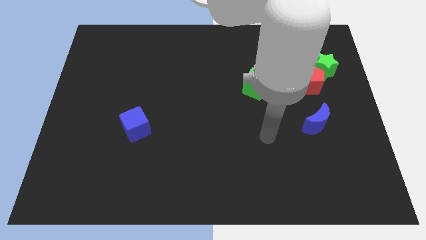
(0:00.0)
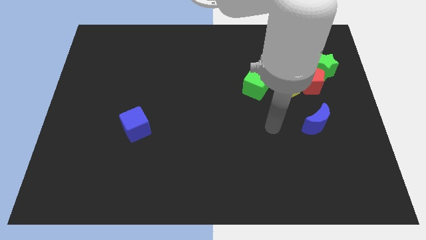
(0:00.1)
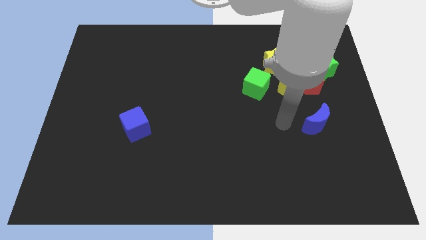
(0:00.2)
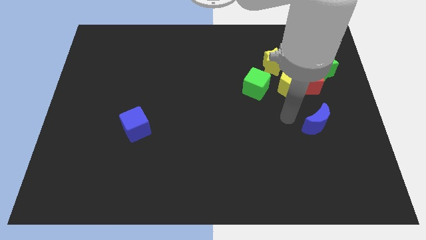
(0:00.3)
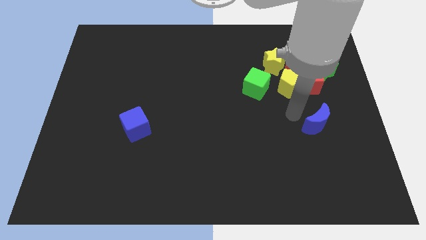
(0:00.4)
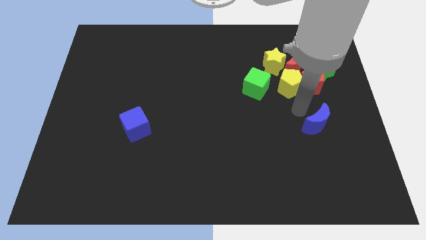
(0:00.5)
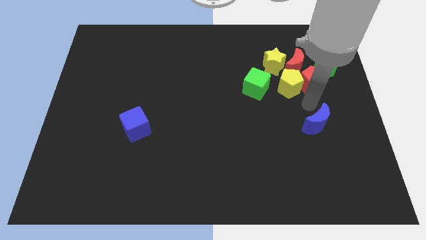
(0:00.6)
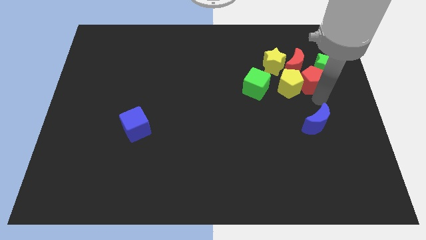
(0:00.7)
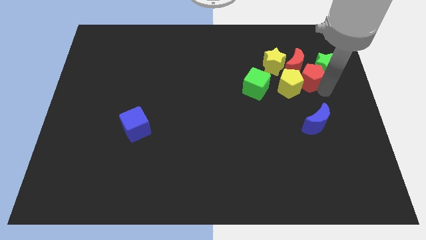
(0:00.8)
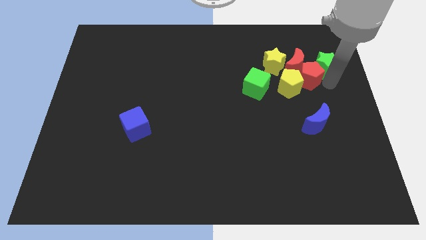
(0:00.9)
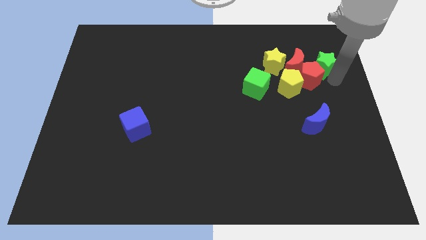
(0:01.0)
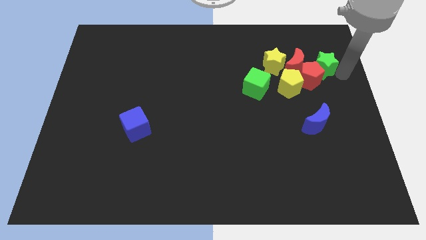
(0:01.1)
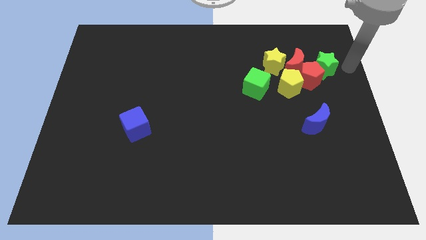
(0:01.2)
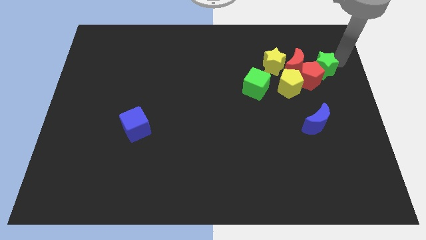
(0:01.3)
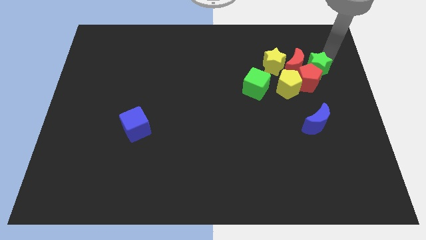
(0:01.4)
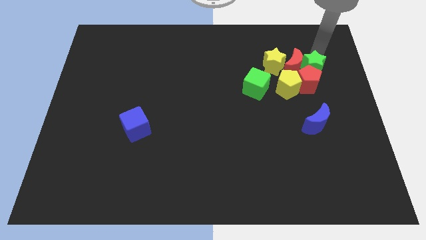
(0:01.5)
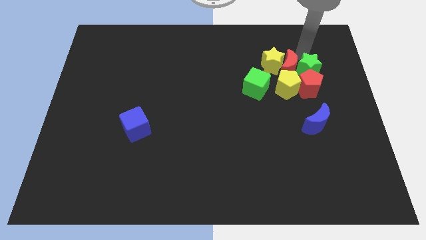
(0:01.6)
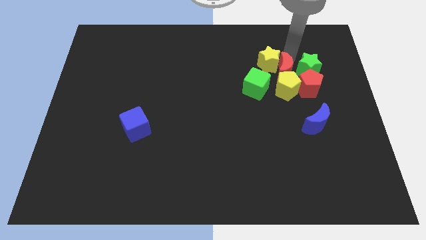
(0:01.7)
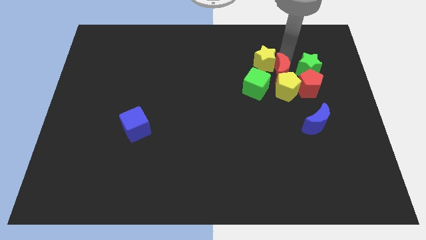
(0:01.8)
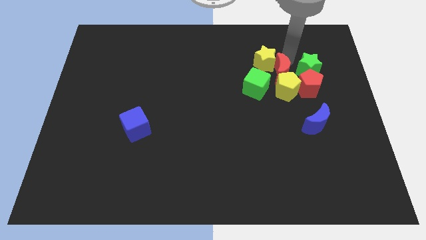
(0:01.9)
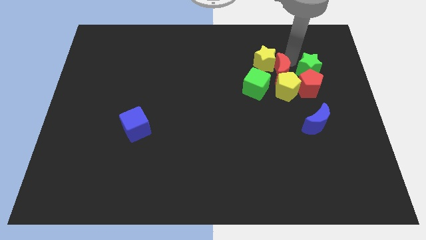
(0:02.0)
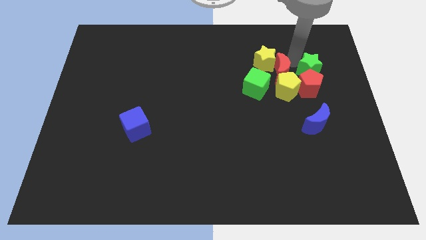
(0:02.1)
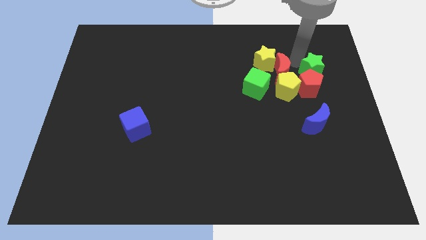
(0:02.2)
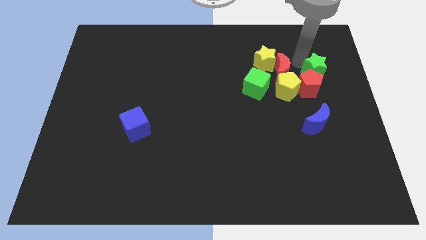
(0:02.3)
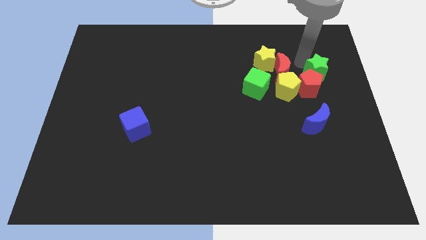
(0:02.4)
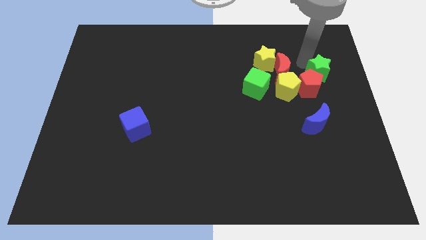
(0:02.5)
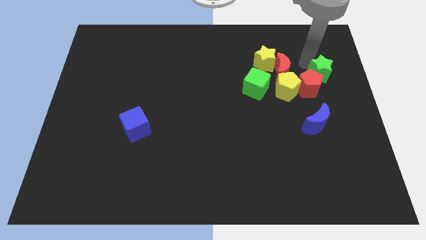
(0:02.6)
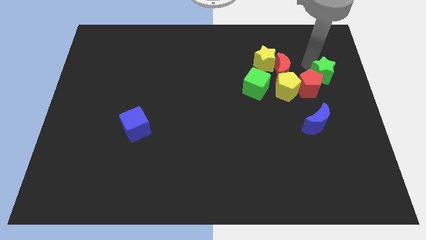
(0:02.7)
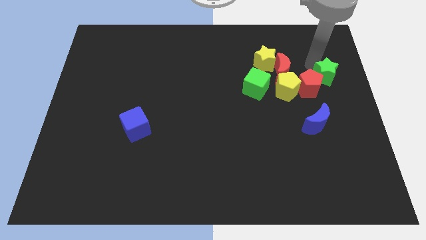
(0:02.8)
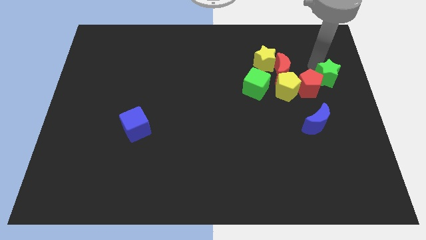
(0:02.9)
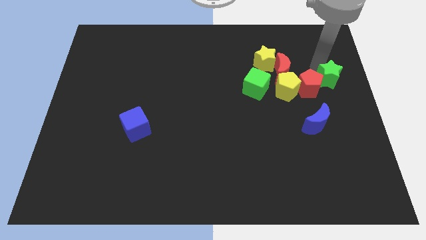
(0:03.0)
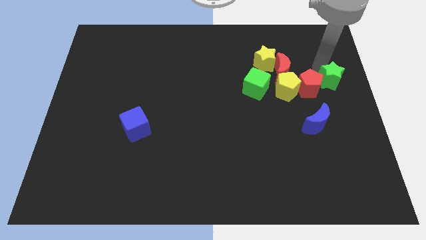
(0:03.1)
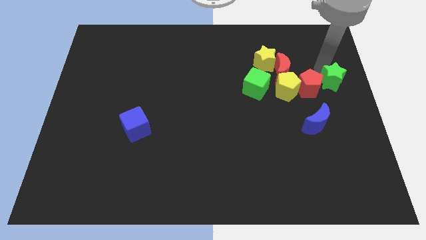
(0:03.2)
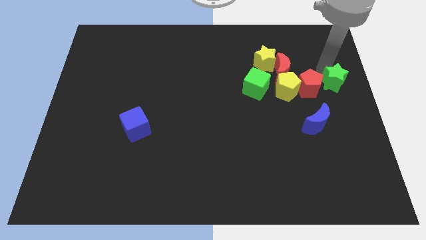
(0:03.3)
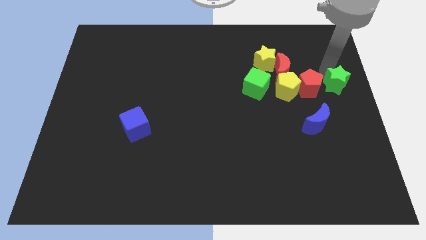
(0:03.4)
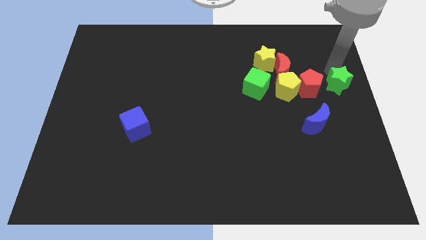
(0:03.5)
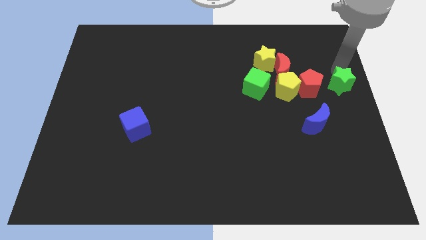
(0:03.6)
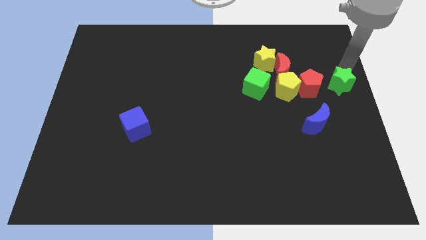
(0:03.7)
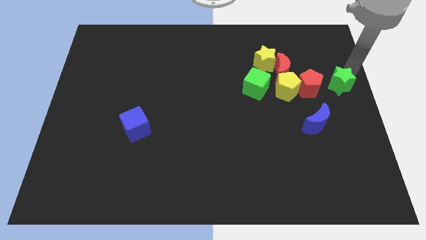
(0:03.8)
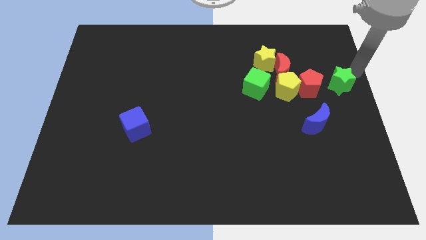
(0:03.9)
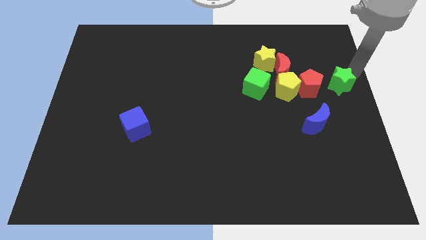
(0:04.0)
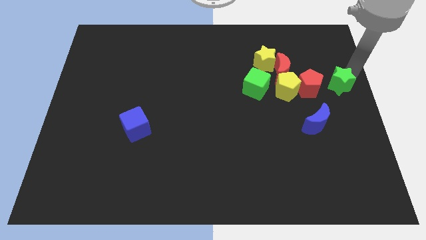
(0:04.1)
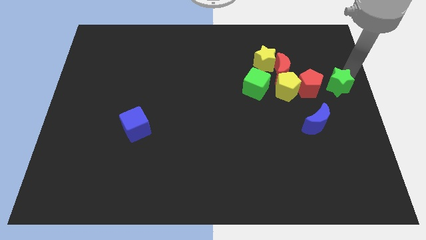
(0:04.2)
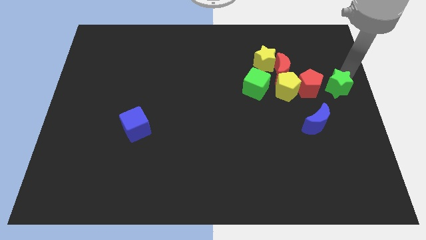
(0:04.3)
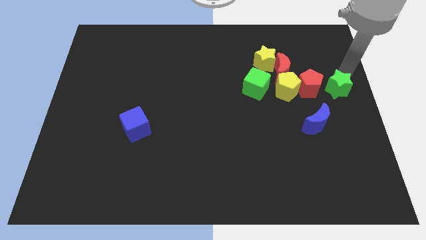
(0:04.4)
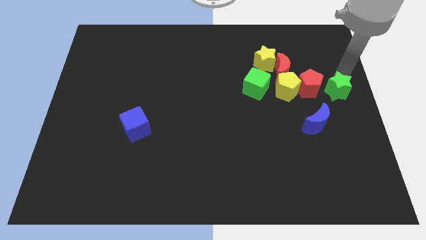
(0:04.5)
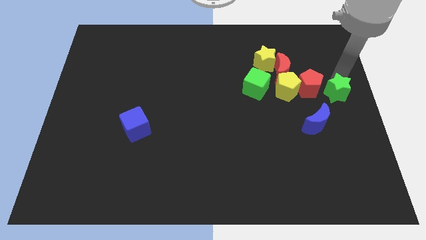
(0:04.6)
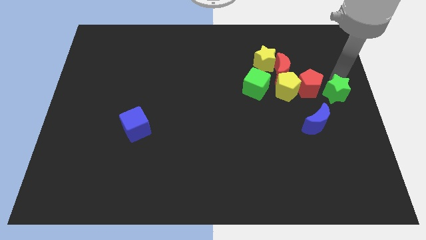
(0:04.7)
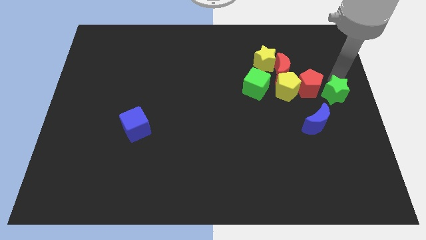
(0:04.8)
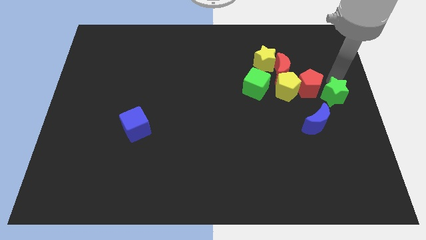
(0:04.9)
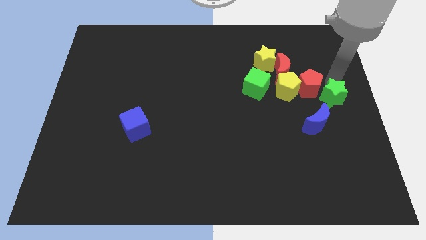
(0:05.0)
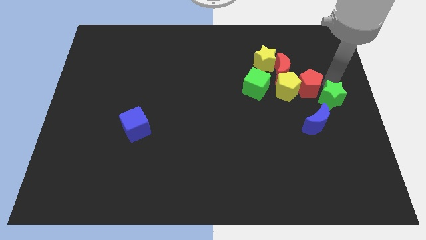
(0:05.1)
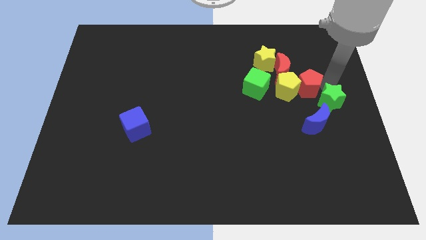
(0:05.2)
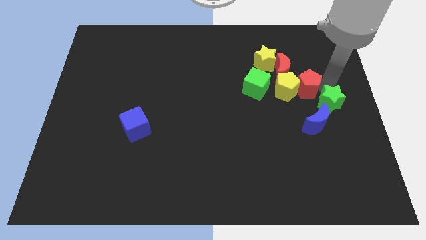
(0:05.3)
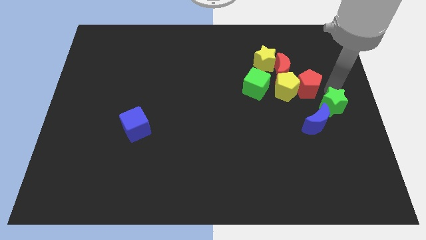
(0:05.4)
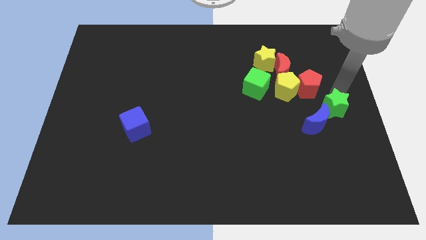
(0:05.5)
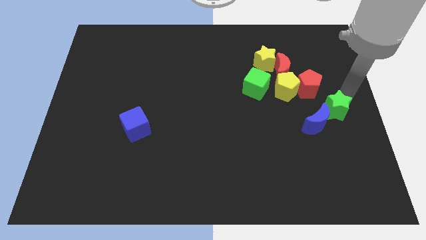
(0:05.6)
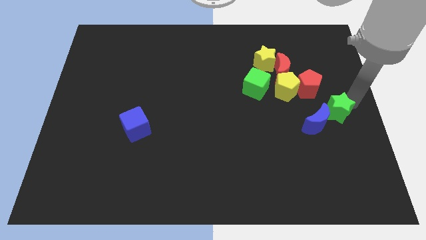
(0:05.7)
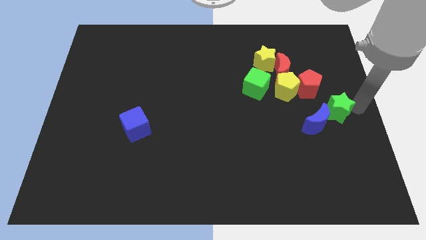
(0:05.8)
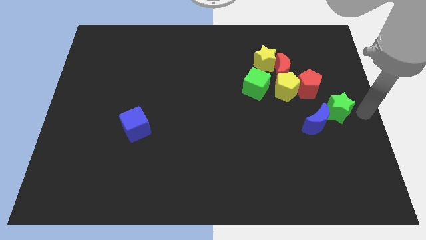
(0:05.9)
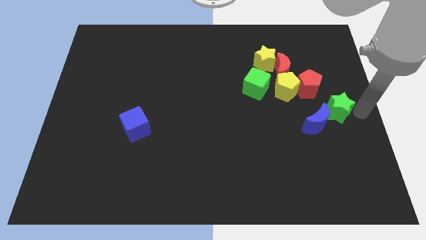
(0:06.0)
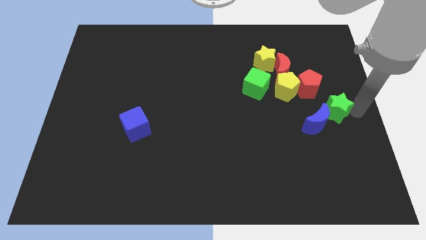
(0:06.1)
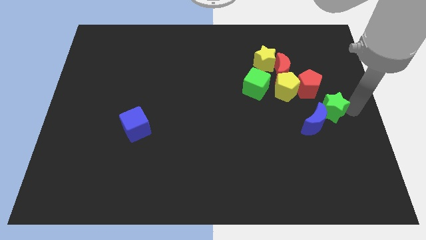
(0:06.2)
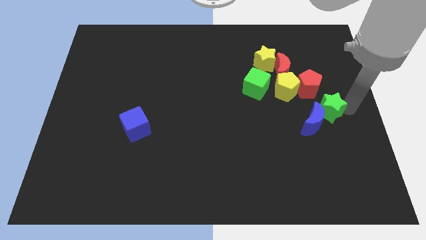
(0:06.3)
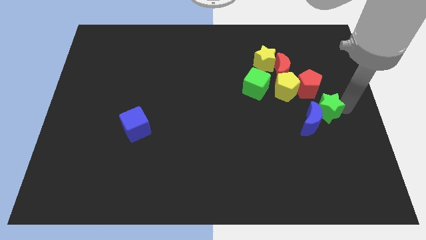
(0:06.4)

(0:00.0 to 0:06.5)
slightly slide the green star downwards and left diagonally

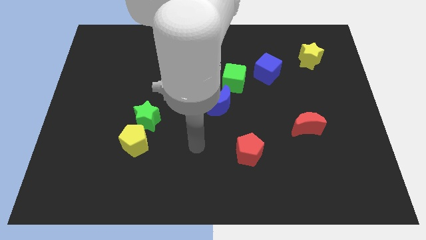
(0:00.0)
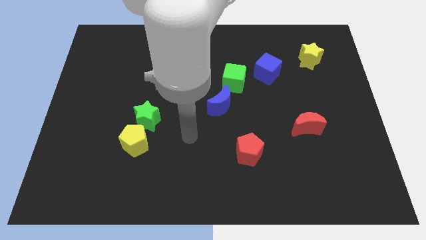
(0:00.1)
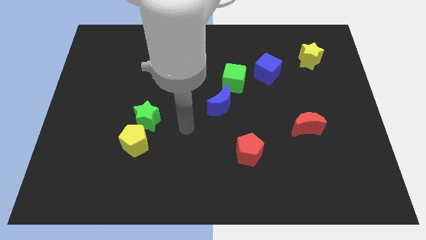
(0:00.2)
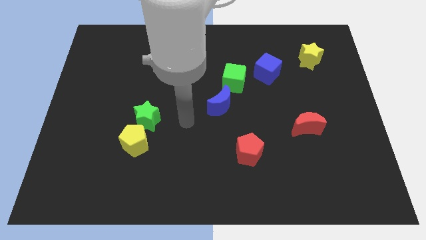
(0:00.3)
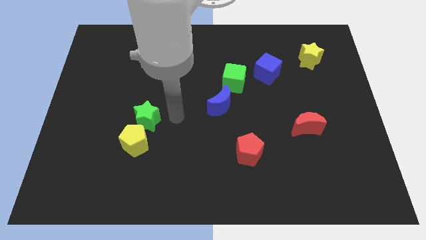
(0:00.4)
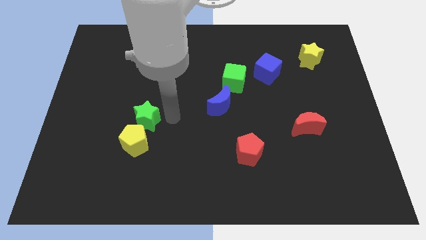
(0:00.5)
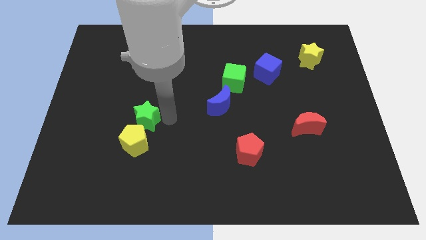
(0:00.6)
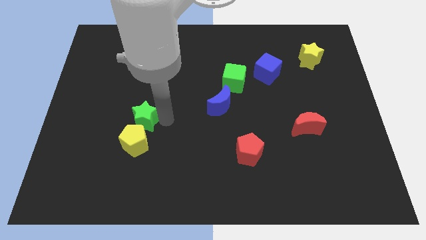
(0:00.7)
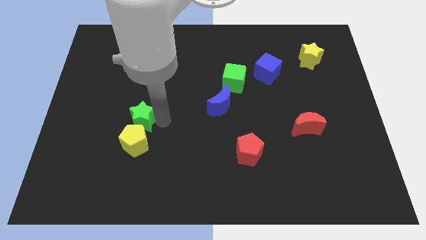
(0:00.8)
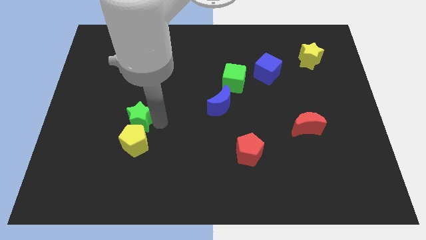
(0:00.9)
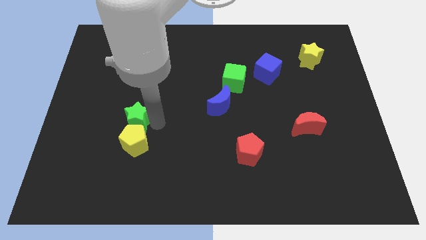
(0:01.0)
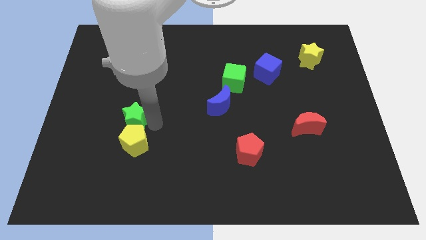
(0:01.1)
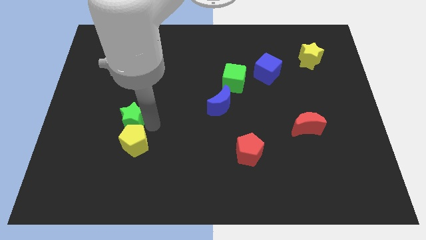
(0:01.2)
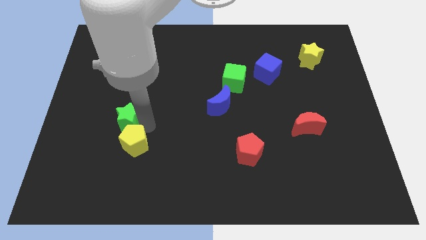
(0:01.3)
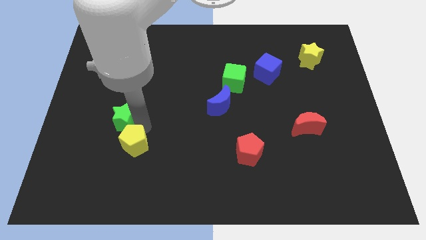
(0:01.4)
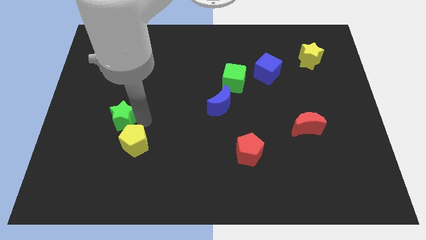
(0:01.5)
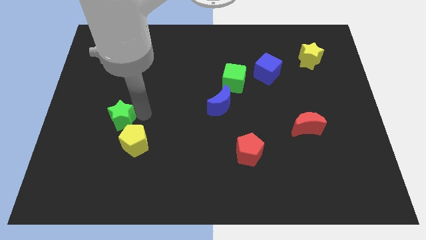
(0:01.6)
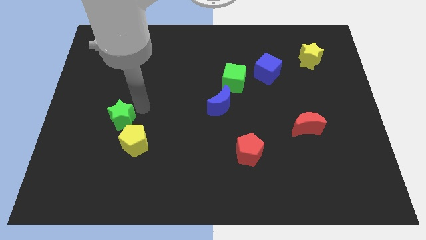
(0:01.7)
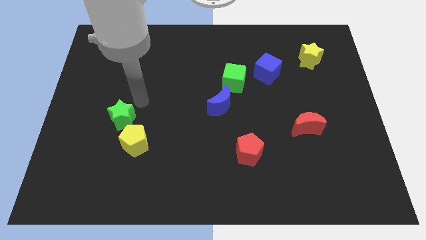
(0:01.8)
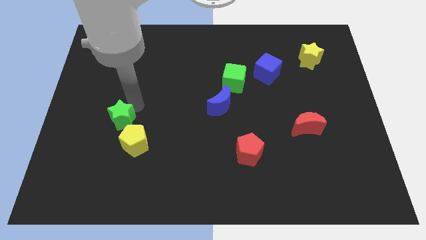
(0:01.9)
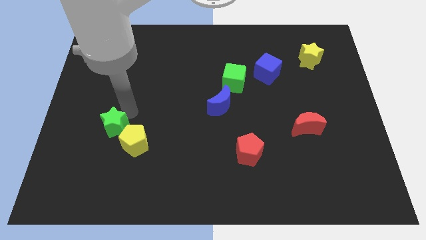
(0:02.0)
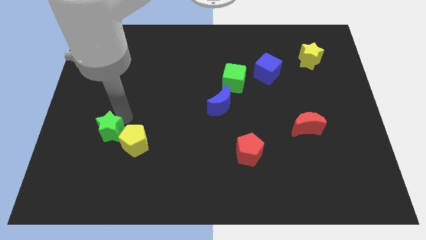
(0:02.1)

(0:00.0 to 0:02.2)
slightly push the green star downwards and then left
